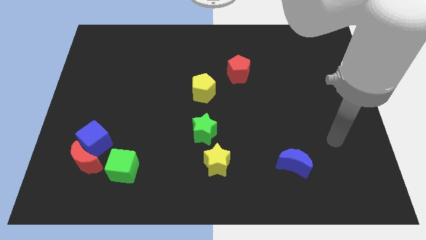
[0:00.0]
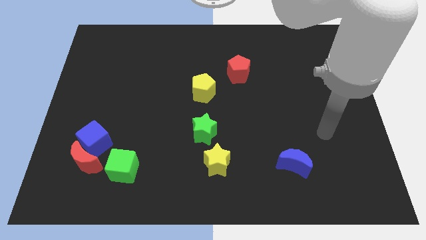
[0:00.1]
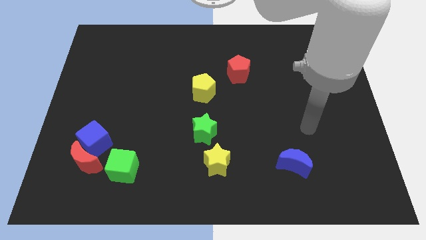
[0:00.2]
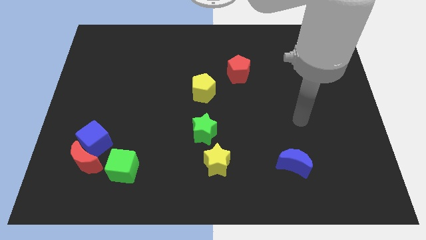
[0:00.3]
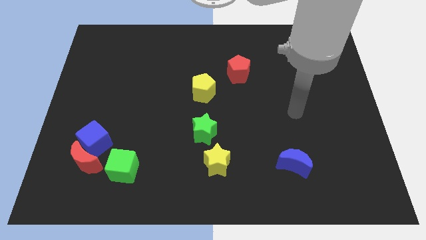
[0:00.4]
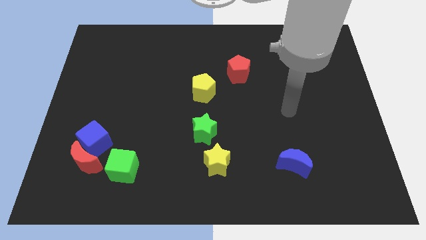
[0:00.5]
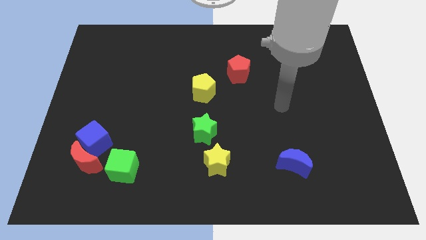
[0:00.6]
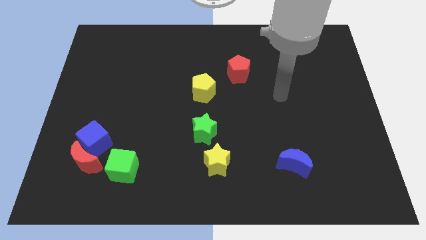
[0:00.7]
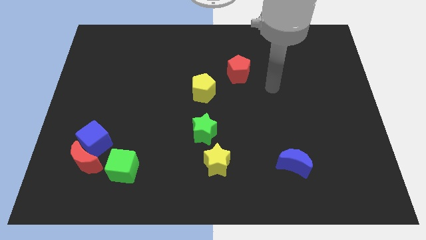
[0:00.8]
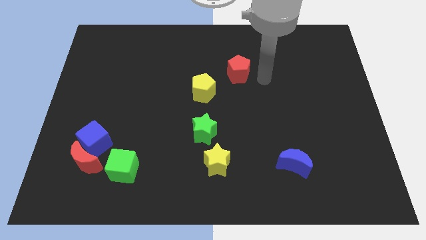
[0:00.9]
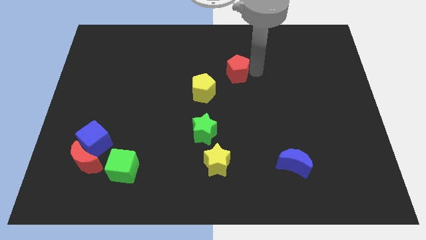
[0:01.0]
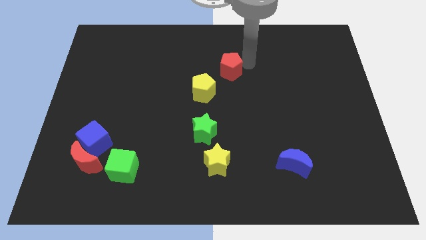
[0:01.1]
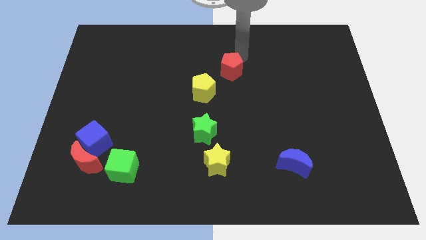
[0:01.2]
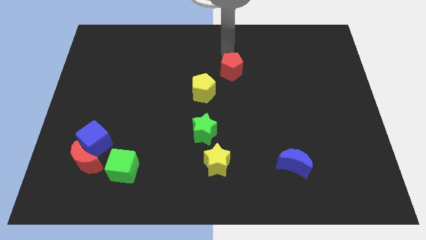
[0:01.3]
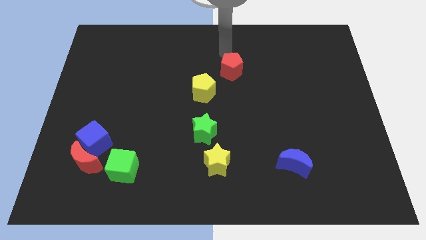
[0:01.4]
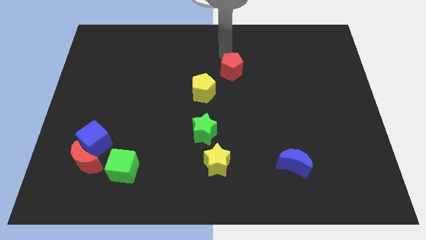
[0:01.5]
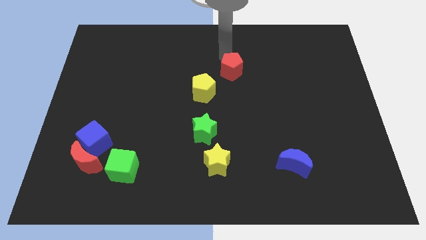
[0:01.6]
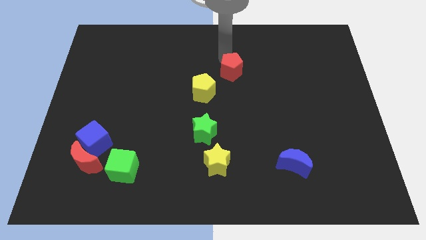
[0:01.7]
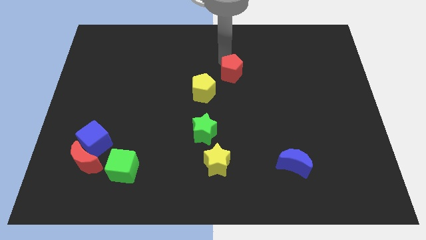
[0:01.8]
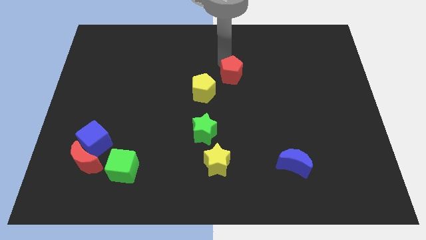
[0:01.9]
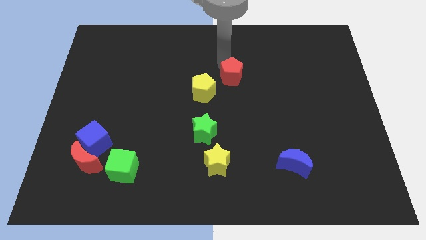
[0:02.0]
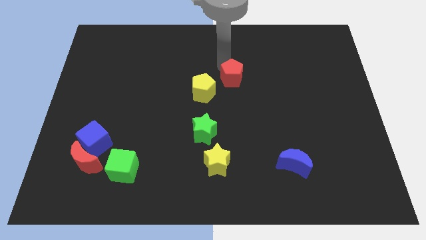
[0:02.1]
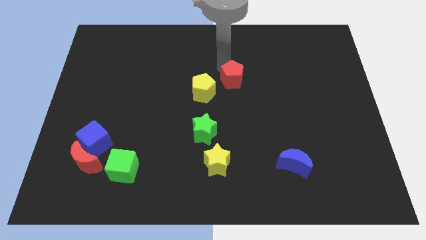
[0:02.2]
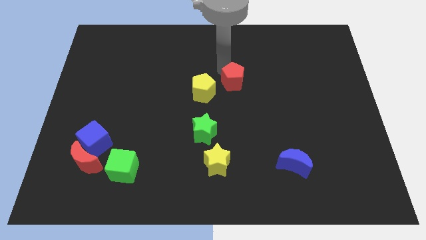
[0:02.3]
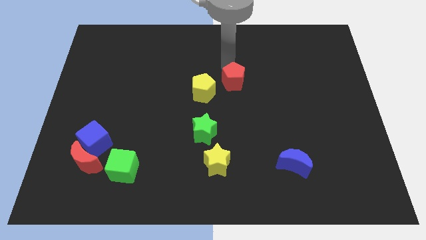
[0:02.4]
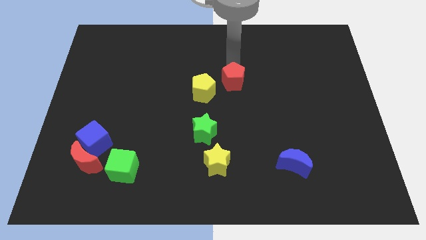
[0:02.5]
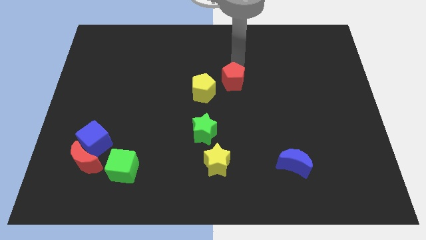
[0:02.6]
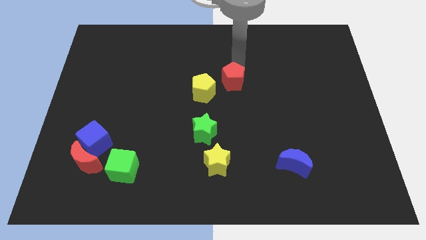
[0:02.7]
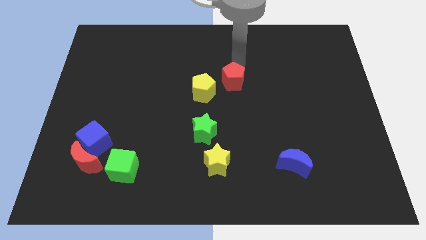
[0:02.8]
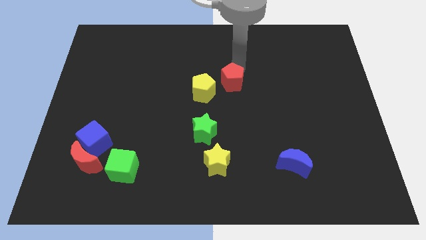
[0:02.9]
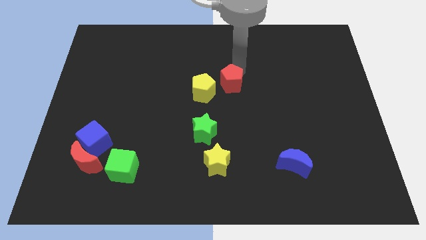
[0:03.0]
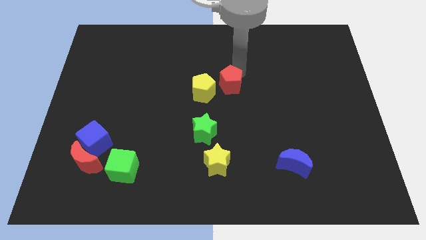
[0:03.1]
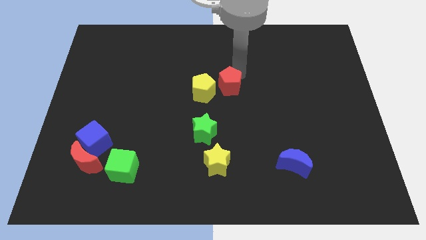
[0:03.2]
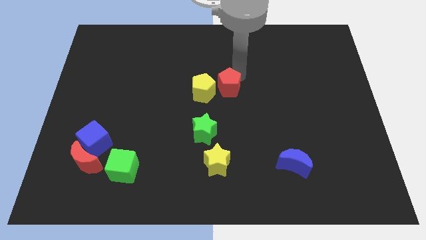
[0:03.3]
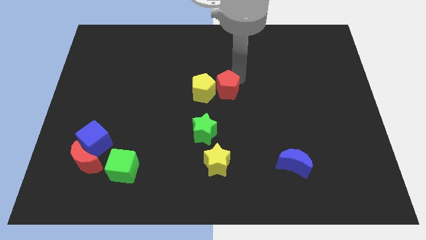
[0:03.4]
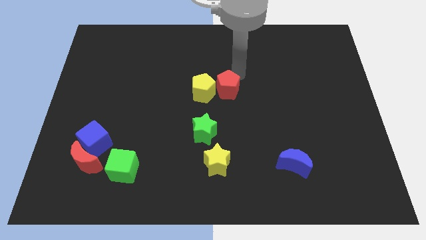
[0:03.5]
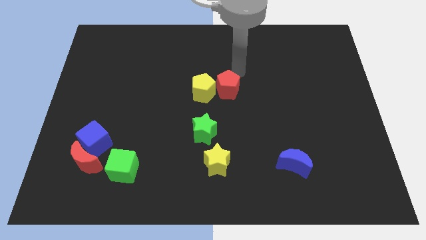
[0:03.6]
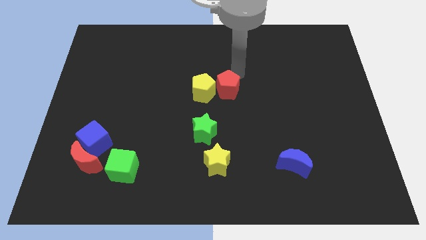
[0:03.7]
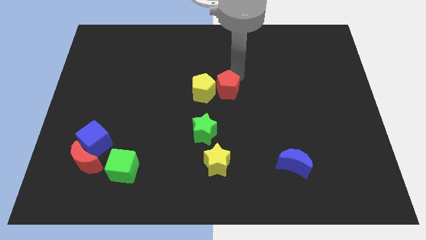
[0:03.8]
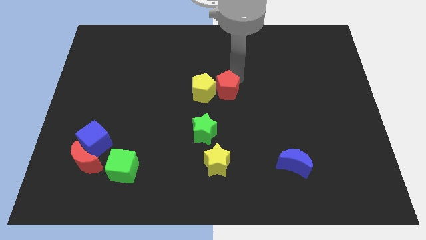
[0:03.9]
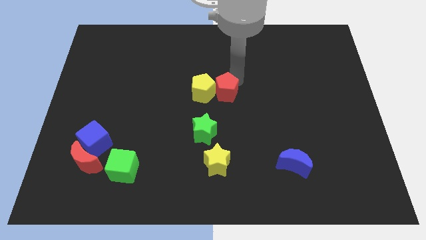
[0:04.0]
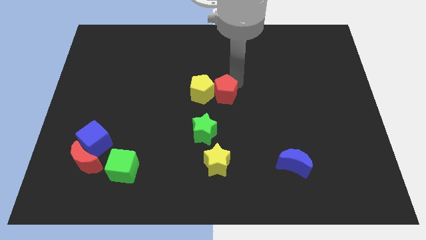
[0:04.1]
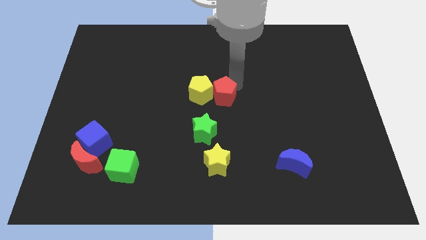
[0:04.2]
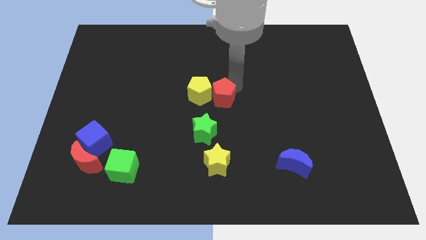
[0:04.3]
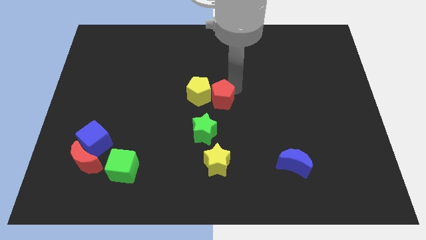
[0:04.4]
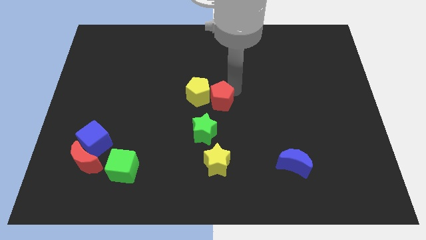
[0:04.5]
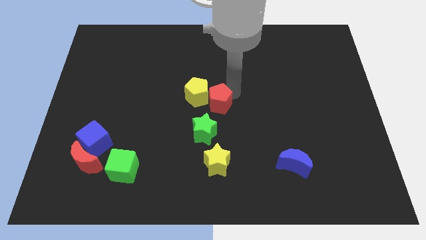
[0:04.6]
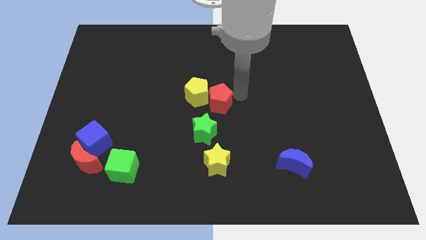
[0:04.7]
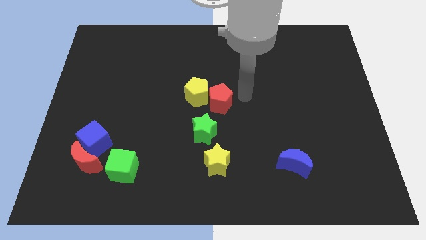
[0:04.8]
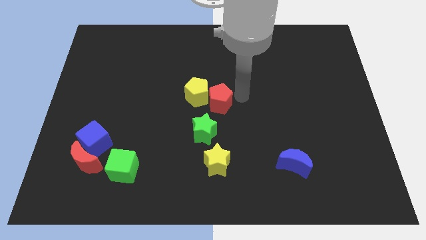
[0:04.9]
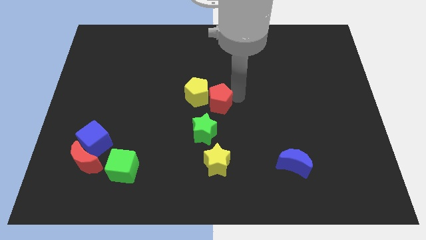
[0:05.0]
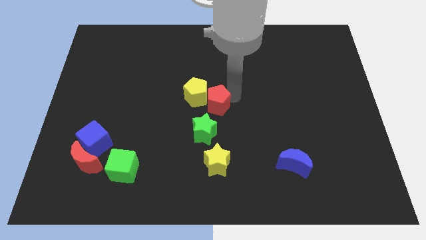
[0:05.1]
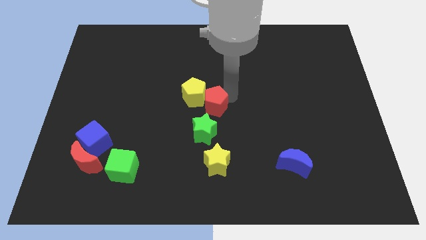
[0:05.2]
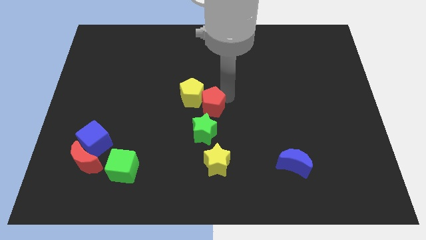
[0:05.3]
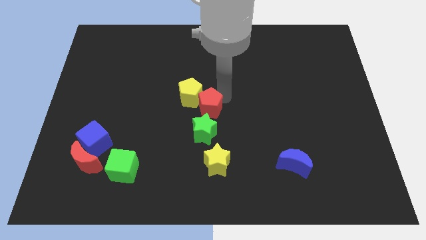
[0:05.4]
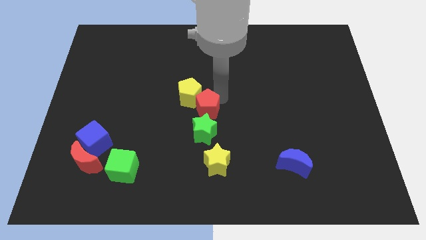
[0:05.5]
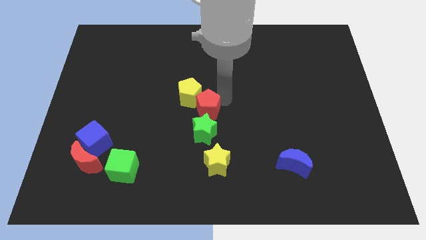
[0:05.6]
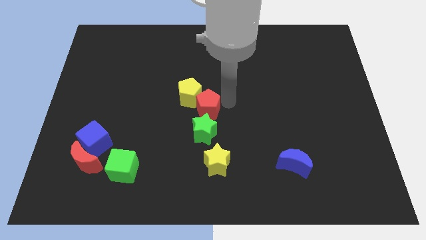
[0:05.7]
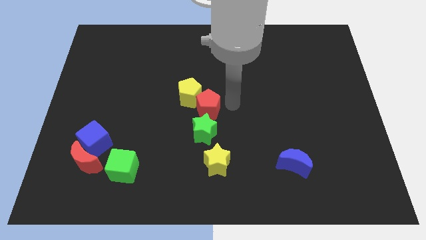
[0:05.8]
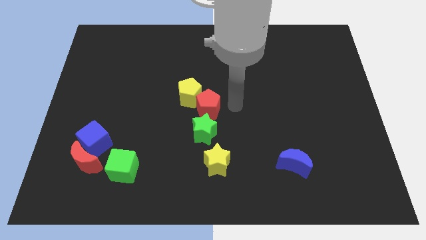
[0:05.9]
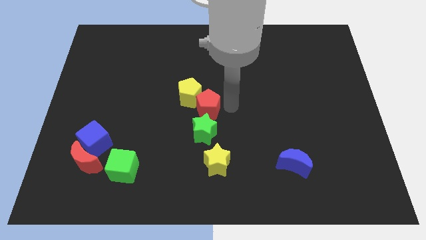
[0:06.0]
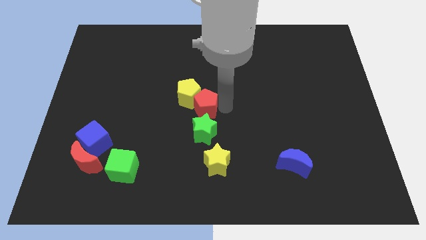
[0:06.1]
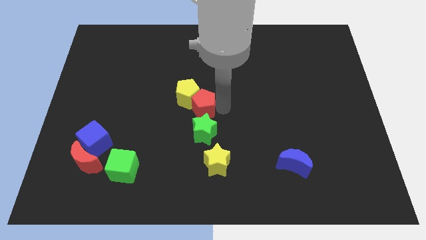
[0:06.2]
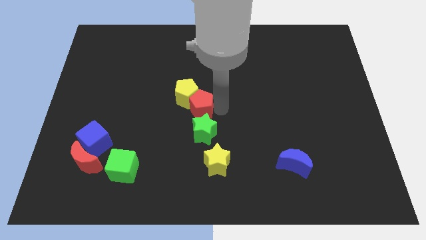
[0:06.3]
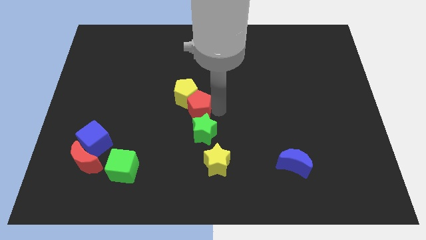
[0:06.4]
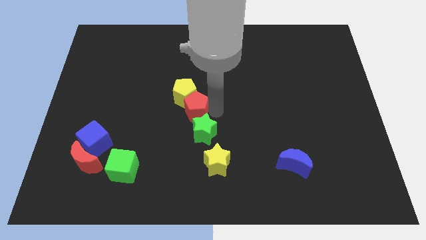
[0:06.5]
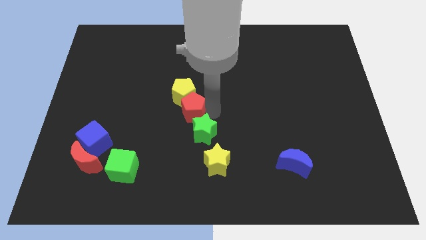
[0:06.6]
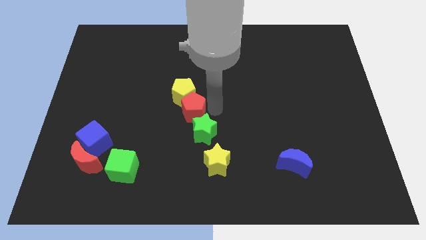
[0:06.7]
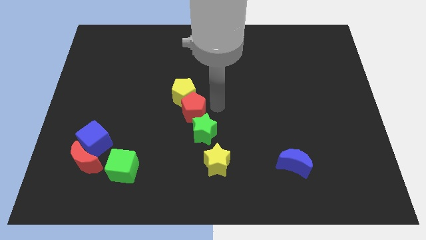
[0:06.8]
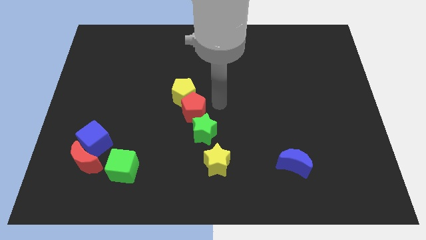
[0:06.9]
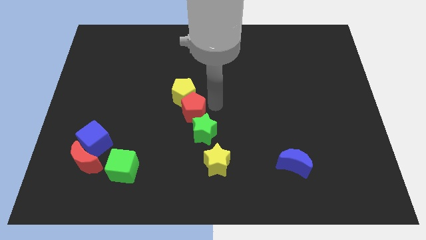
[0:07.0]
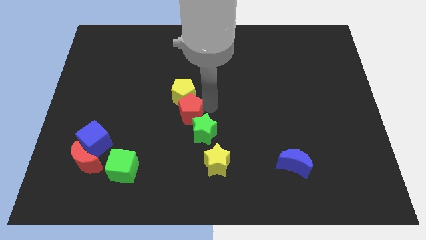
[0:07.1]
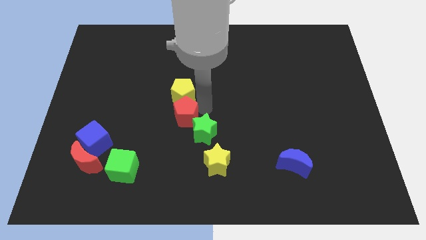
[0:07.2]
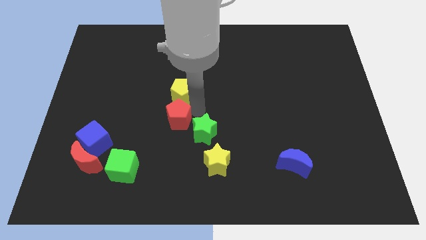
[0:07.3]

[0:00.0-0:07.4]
move the red pentagon downwards and then left

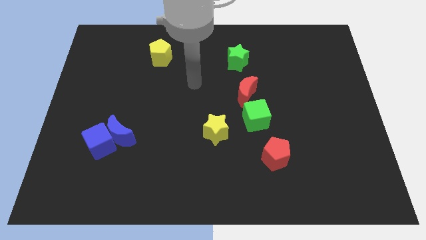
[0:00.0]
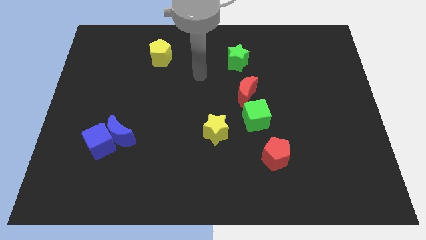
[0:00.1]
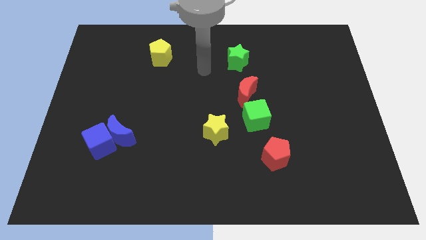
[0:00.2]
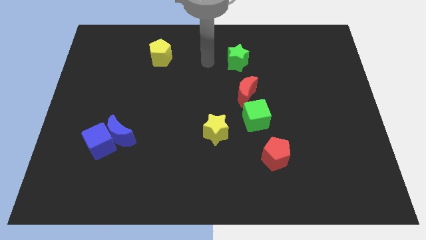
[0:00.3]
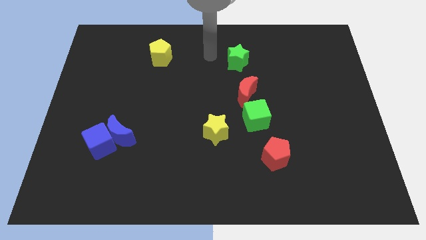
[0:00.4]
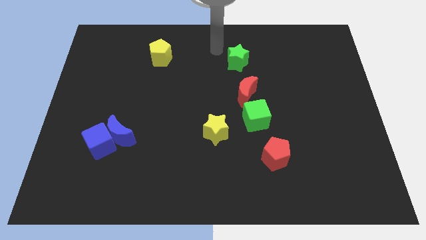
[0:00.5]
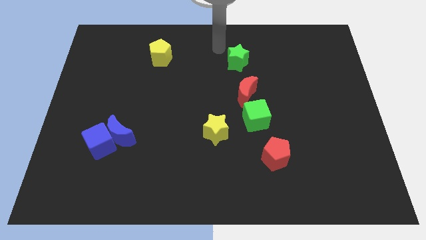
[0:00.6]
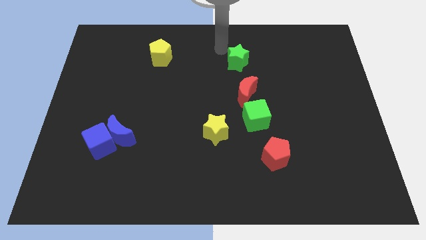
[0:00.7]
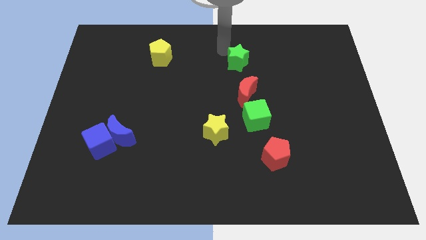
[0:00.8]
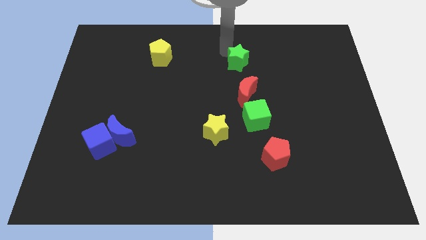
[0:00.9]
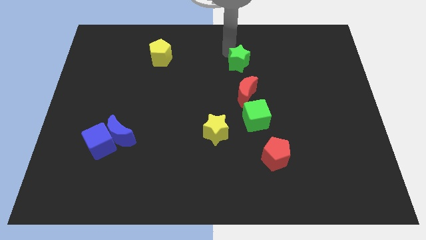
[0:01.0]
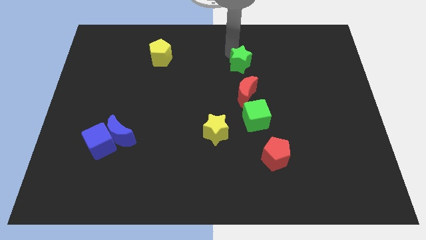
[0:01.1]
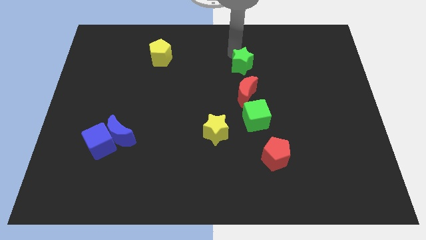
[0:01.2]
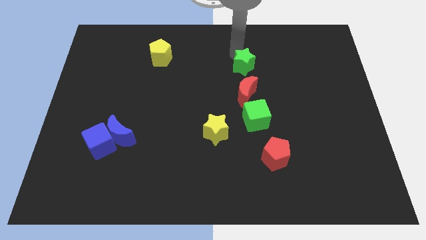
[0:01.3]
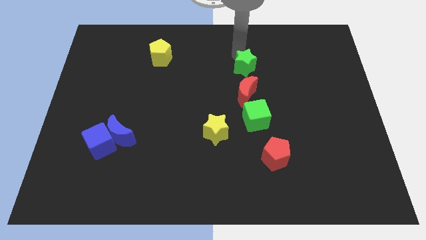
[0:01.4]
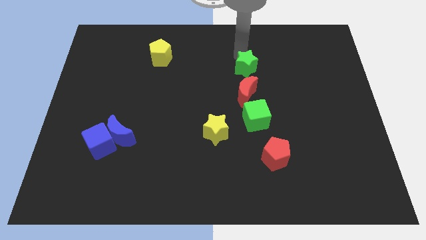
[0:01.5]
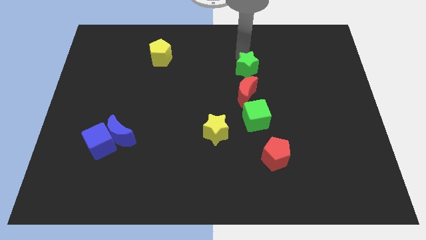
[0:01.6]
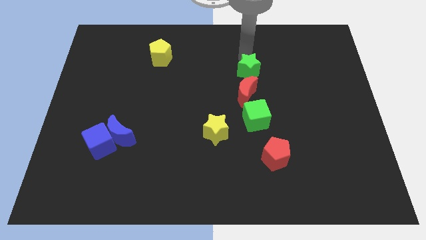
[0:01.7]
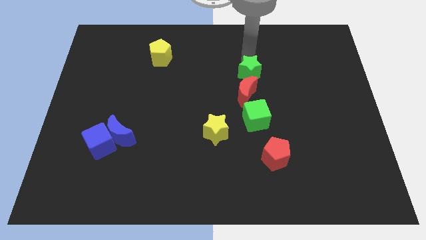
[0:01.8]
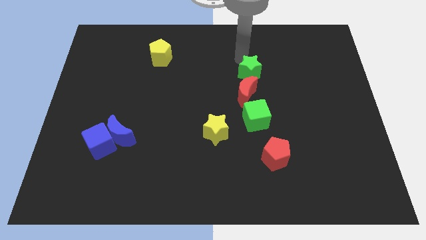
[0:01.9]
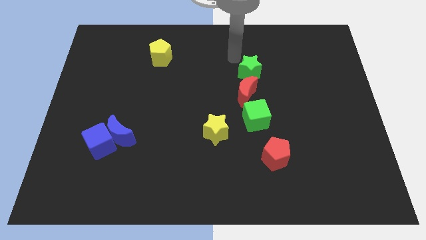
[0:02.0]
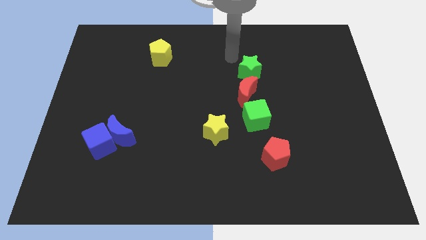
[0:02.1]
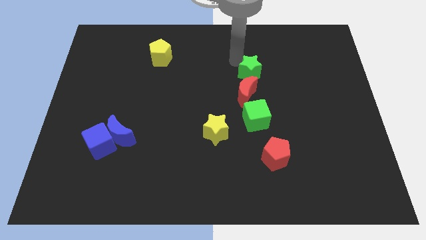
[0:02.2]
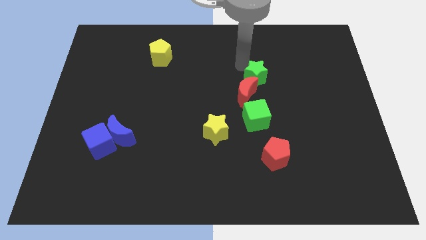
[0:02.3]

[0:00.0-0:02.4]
slide the green star a bit diagonally down and right
